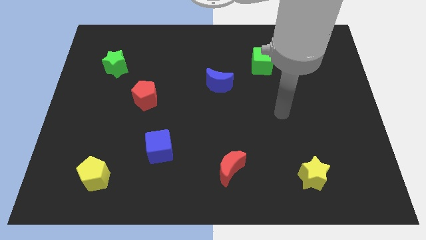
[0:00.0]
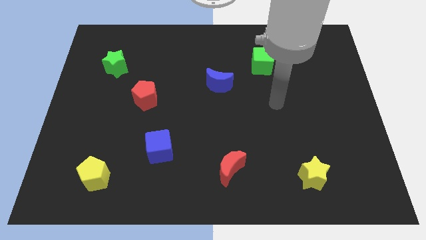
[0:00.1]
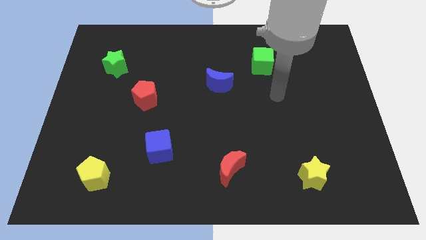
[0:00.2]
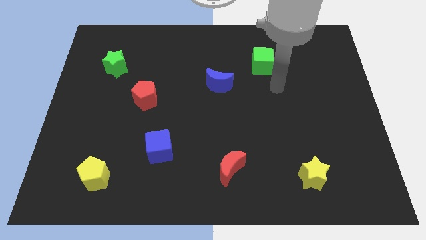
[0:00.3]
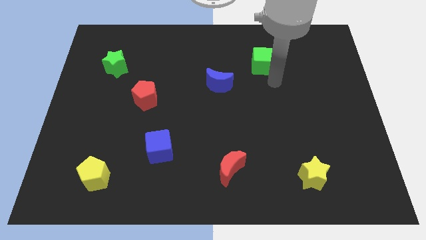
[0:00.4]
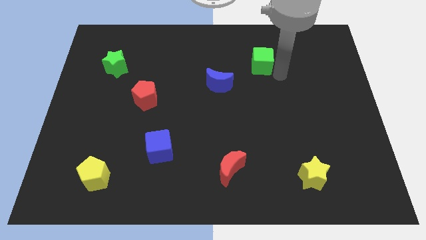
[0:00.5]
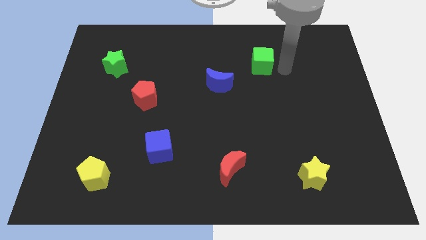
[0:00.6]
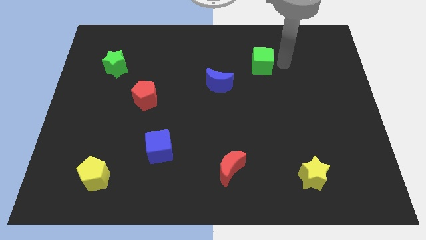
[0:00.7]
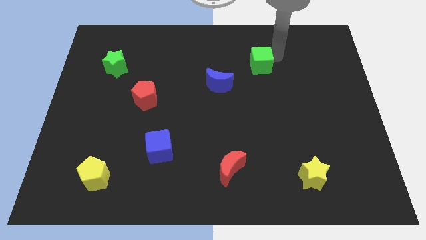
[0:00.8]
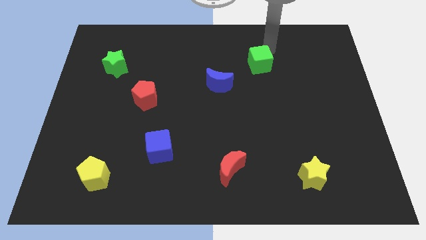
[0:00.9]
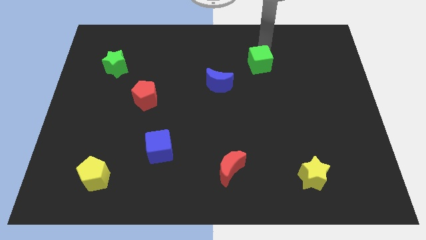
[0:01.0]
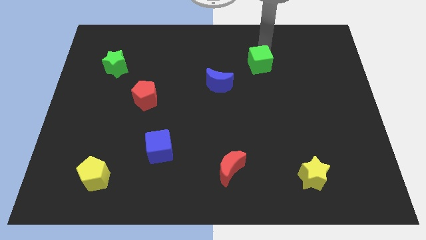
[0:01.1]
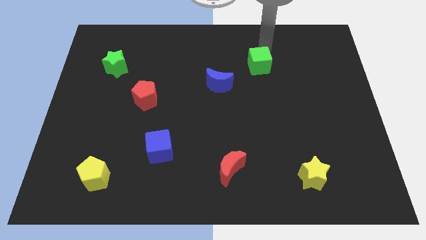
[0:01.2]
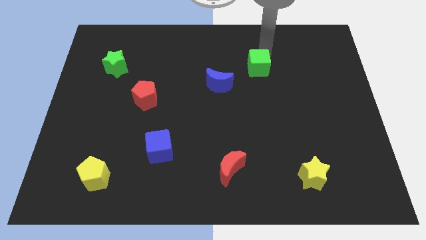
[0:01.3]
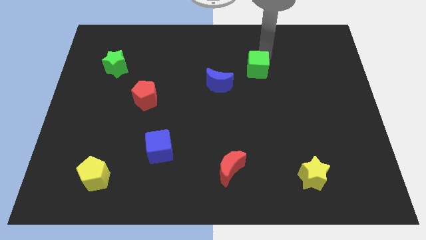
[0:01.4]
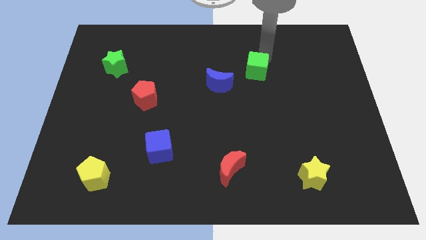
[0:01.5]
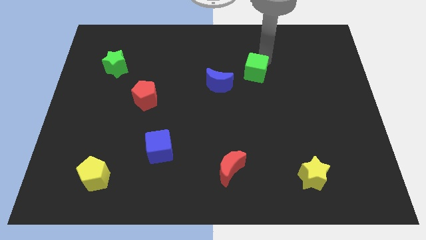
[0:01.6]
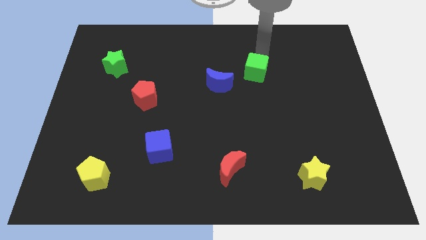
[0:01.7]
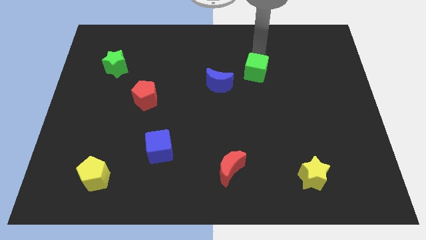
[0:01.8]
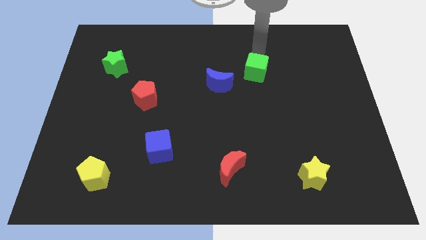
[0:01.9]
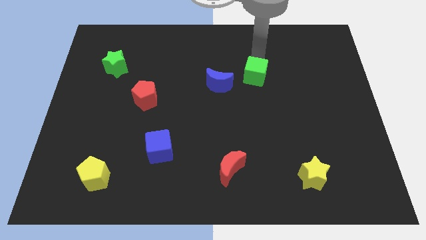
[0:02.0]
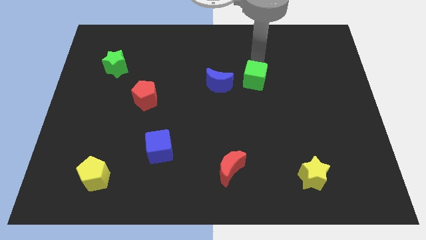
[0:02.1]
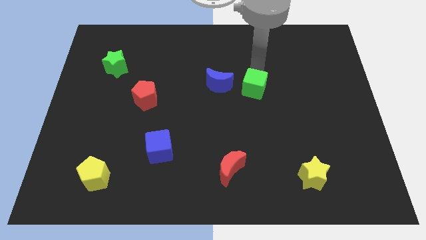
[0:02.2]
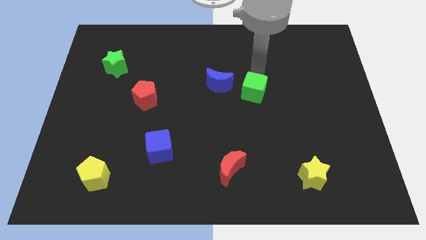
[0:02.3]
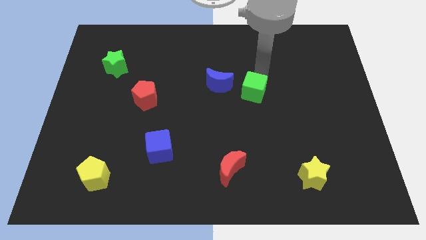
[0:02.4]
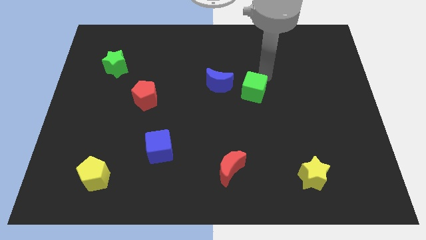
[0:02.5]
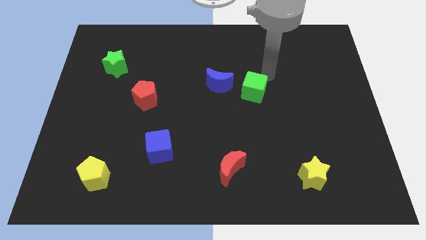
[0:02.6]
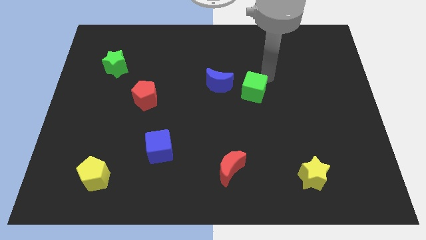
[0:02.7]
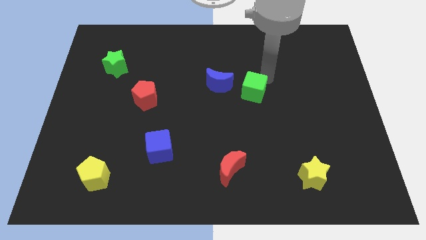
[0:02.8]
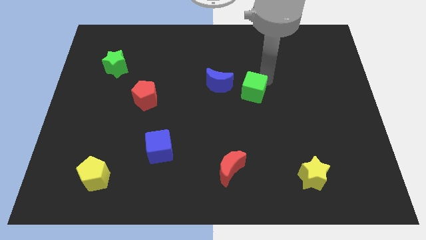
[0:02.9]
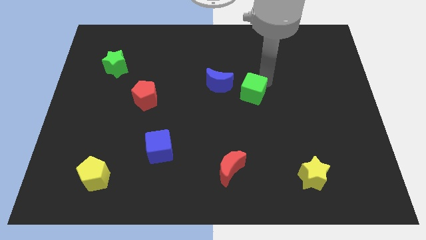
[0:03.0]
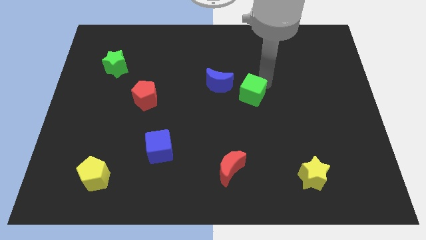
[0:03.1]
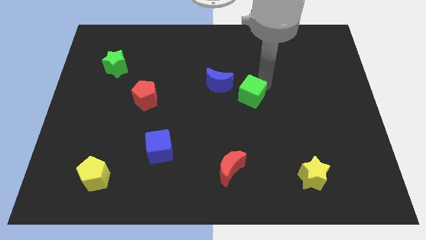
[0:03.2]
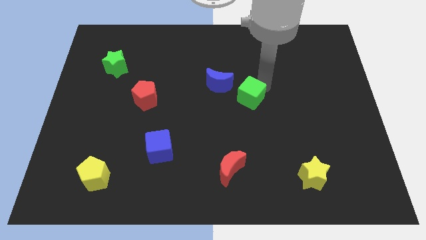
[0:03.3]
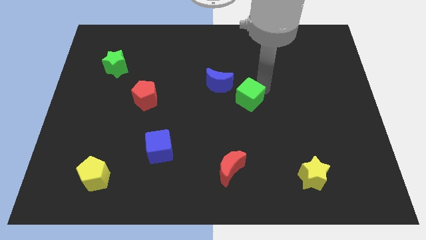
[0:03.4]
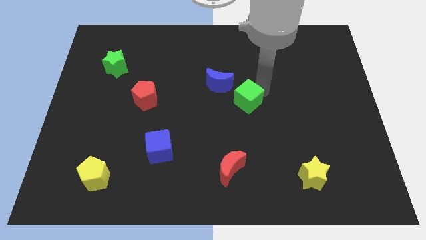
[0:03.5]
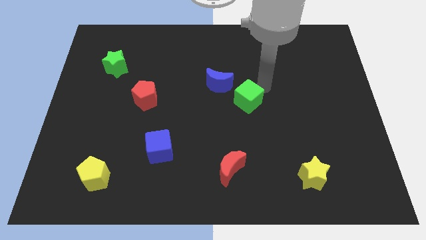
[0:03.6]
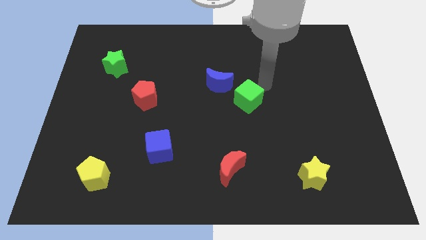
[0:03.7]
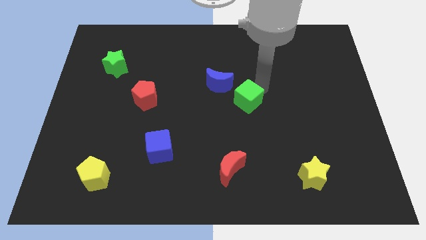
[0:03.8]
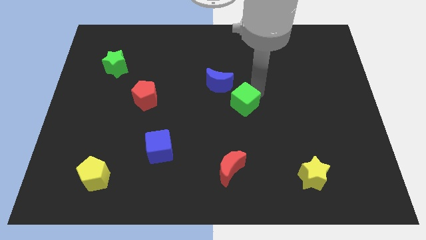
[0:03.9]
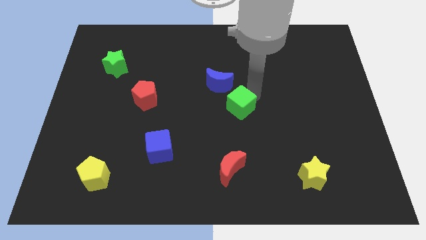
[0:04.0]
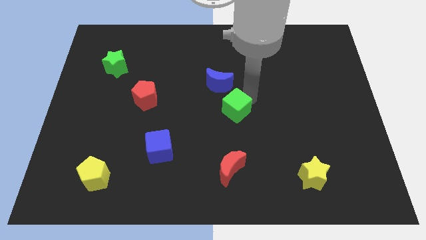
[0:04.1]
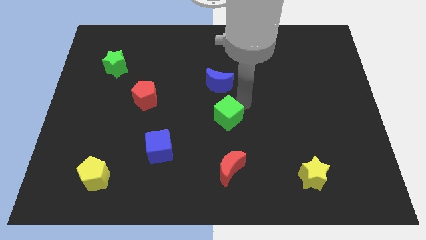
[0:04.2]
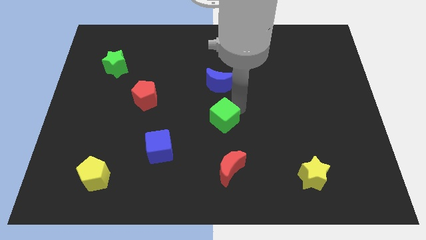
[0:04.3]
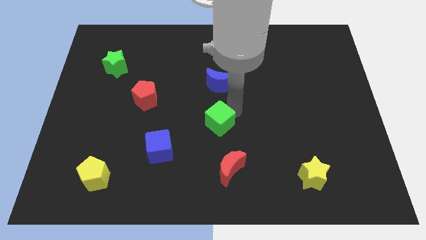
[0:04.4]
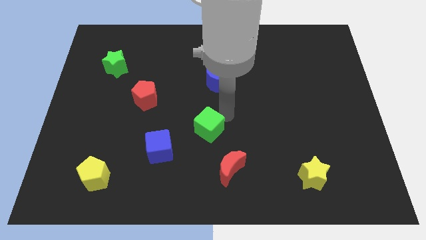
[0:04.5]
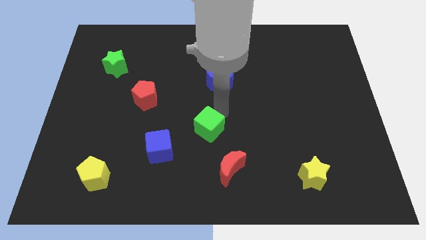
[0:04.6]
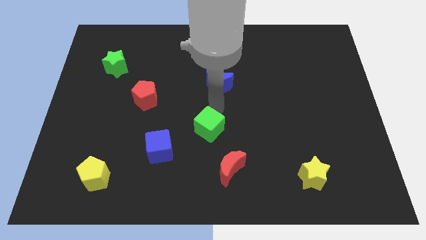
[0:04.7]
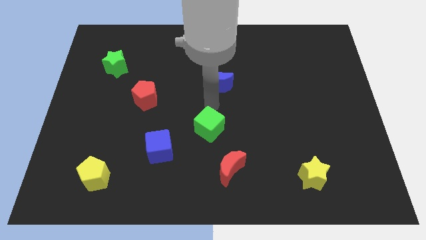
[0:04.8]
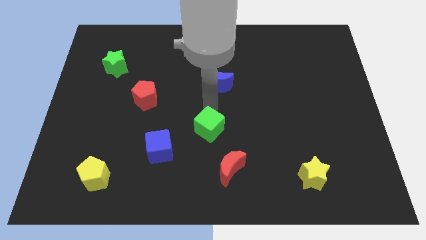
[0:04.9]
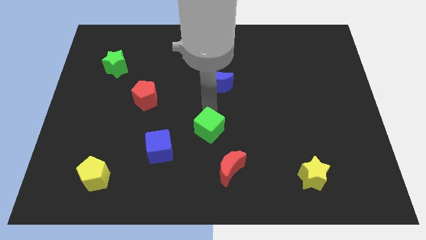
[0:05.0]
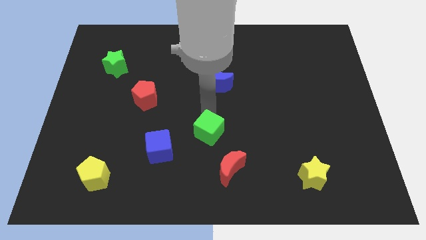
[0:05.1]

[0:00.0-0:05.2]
slide the green cube to the right of the blue cube

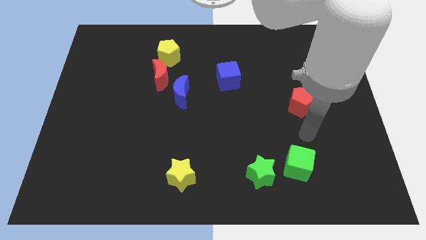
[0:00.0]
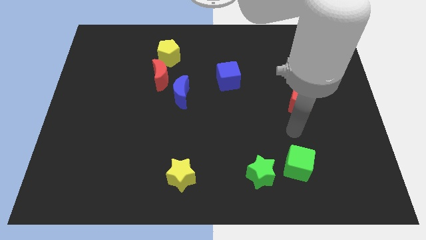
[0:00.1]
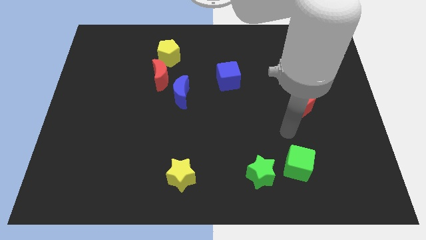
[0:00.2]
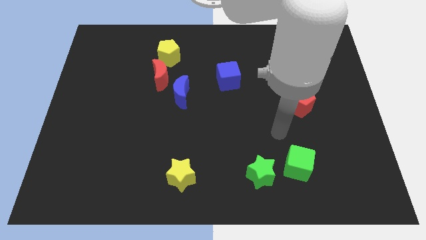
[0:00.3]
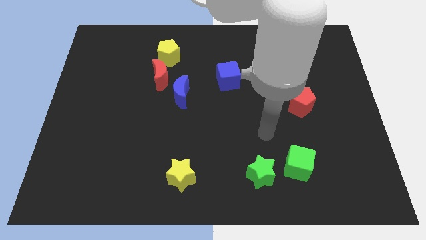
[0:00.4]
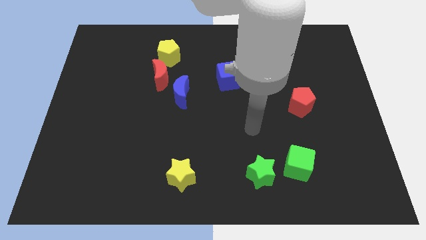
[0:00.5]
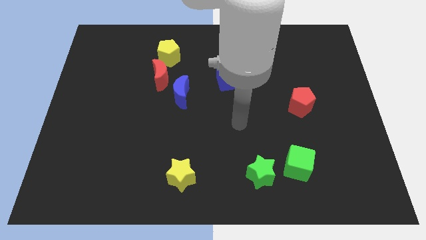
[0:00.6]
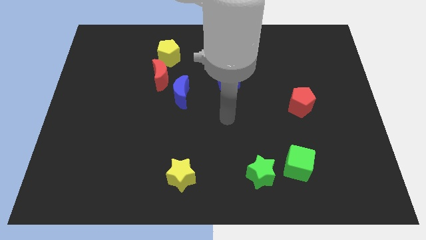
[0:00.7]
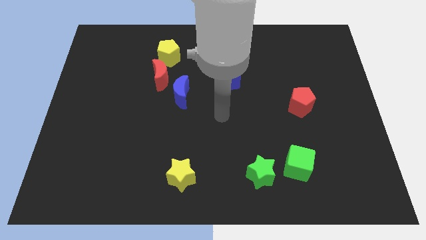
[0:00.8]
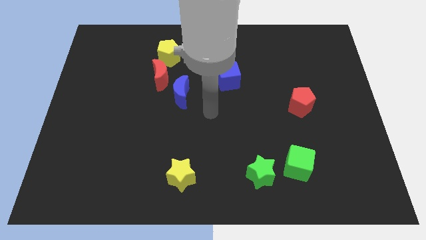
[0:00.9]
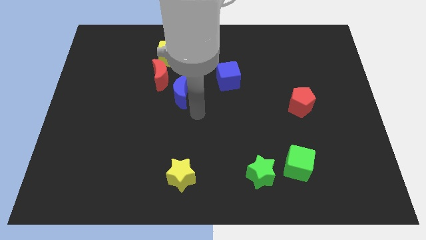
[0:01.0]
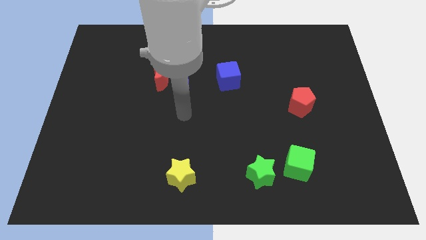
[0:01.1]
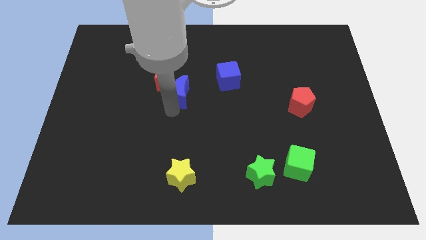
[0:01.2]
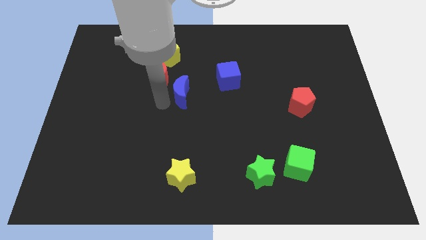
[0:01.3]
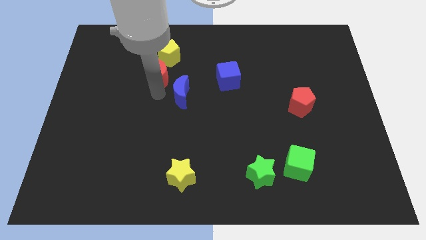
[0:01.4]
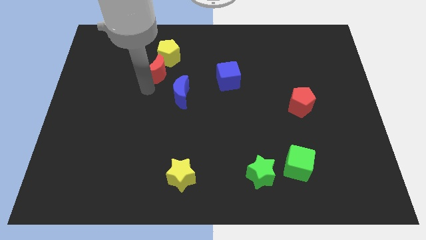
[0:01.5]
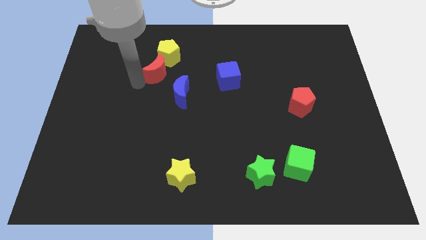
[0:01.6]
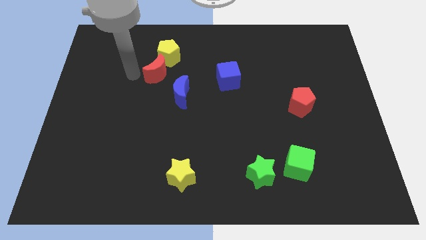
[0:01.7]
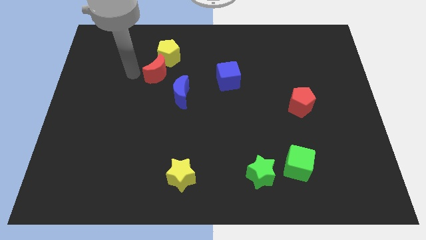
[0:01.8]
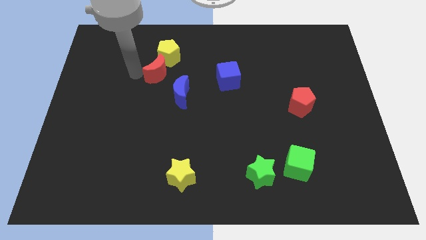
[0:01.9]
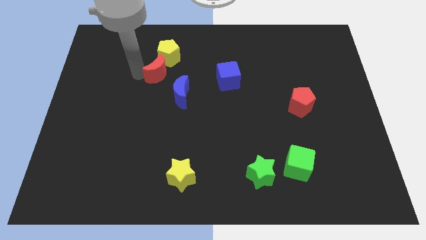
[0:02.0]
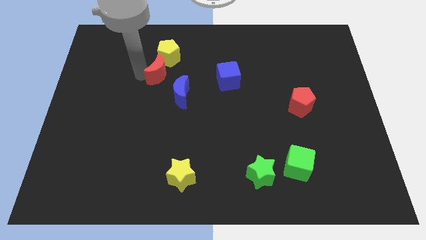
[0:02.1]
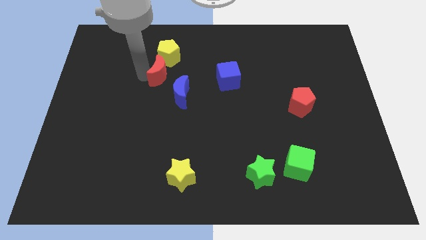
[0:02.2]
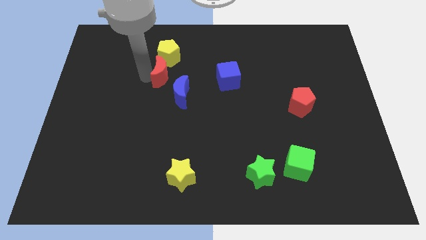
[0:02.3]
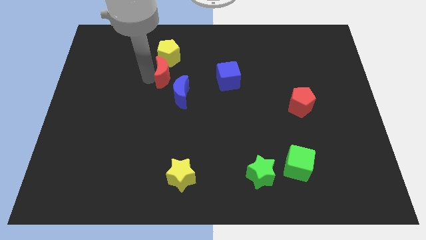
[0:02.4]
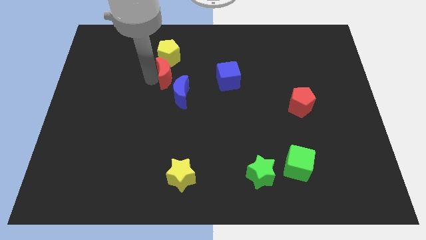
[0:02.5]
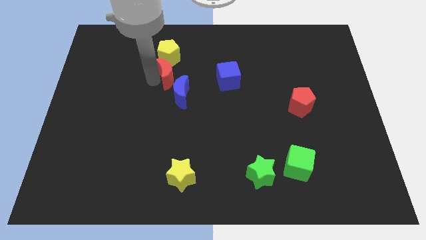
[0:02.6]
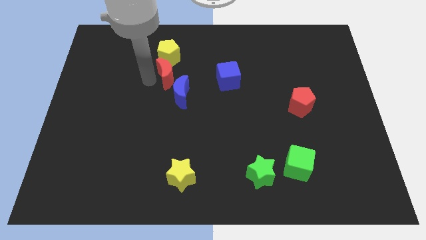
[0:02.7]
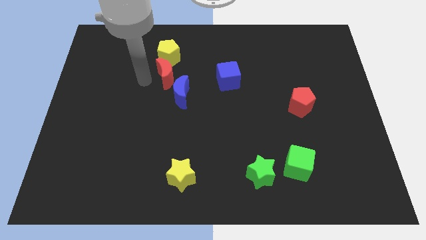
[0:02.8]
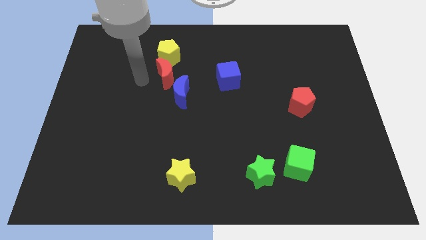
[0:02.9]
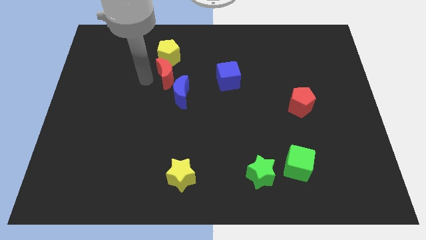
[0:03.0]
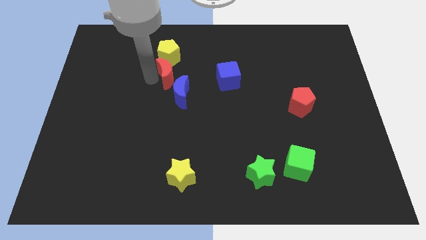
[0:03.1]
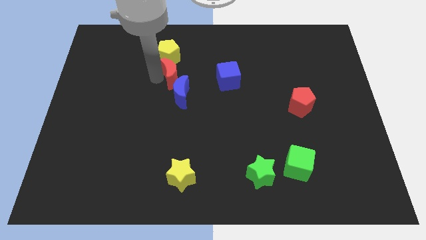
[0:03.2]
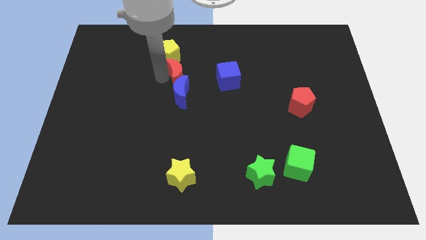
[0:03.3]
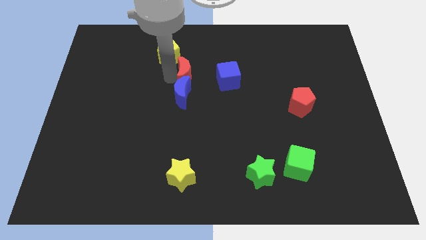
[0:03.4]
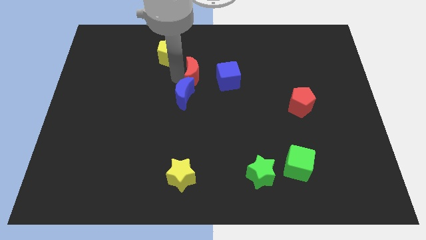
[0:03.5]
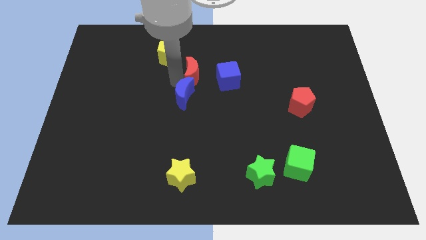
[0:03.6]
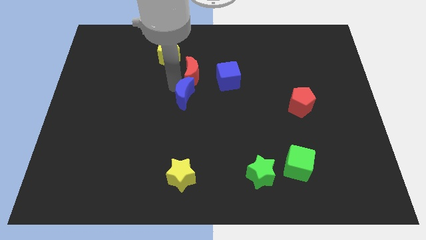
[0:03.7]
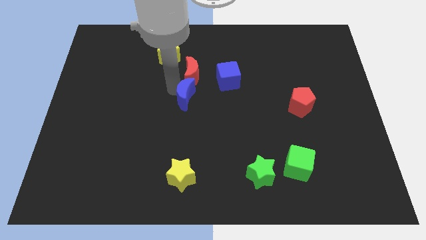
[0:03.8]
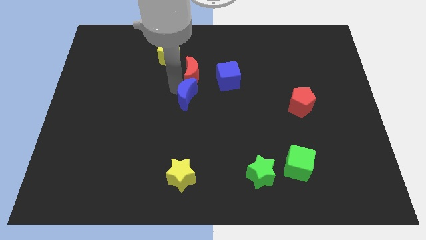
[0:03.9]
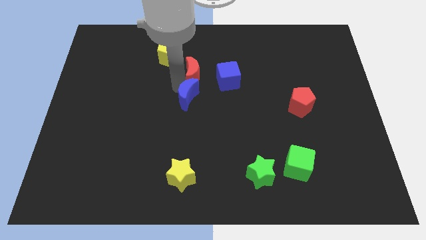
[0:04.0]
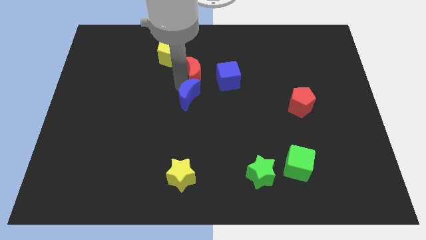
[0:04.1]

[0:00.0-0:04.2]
put the red moon diagonally up and to the left of the blue cube
